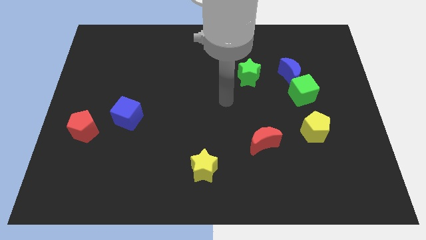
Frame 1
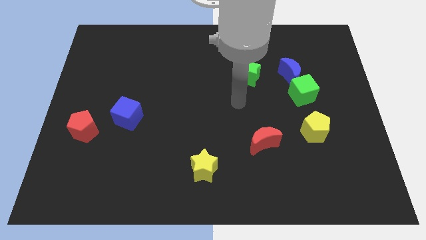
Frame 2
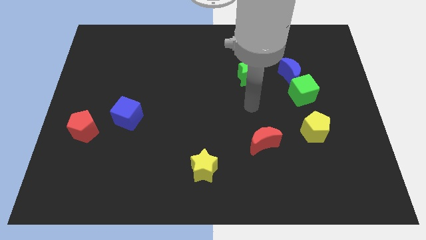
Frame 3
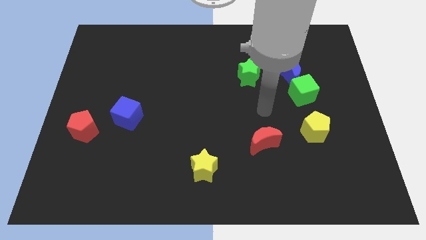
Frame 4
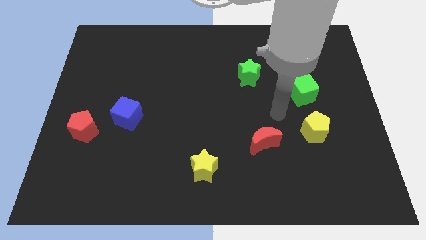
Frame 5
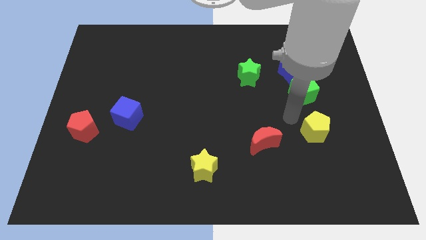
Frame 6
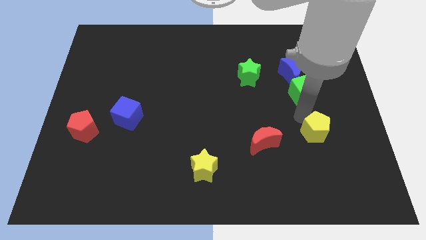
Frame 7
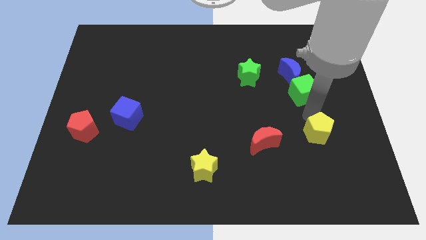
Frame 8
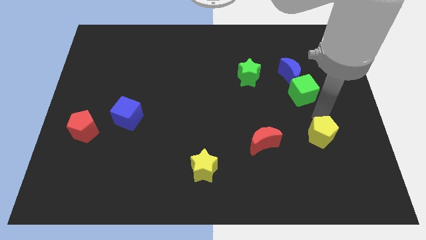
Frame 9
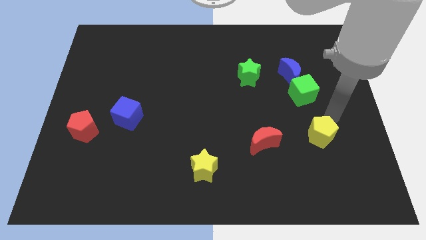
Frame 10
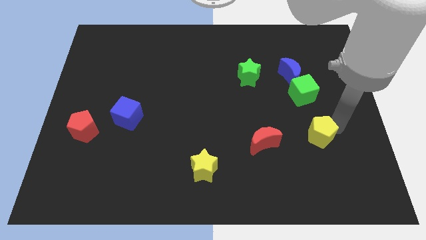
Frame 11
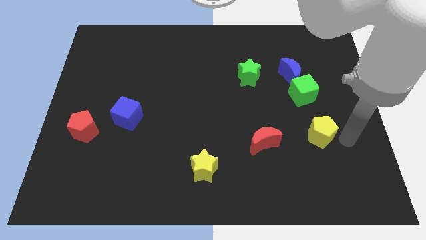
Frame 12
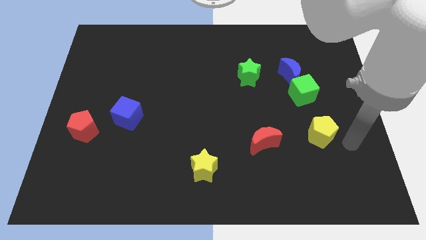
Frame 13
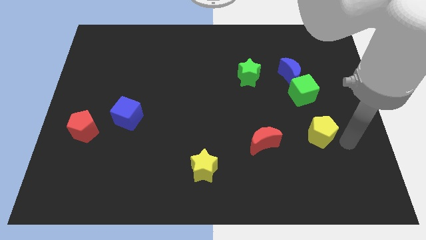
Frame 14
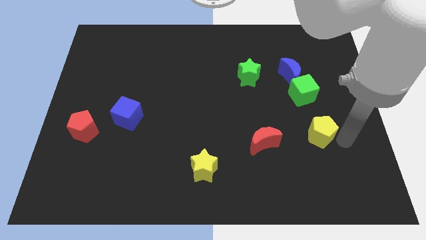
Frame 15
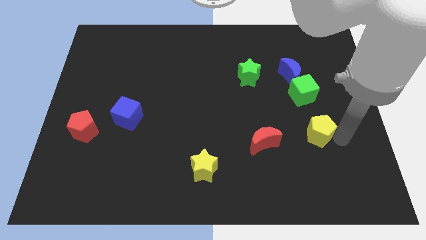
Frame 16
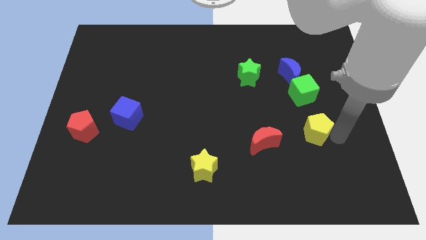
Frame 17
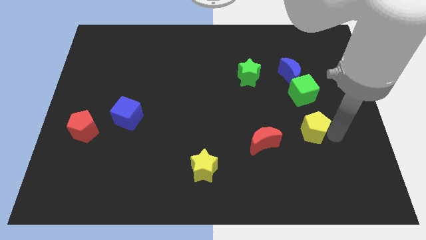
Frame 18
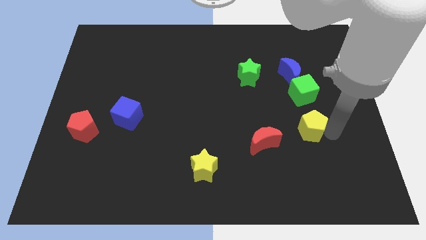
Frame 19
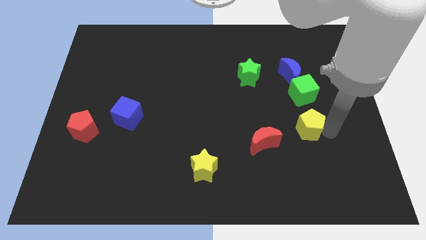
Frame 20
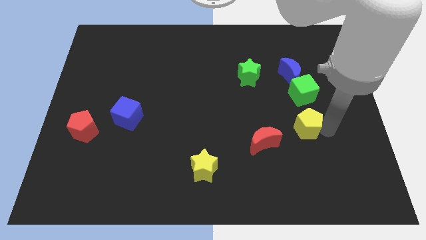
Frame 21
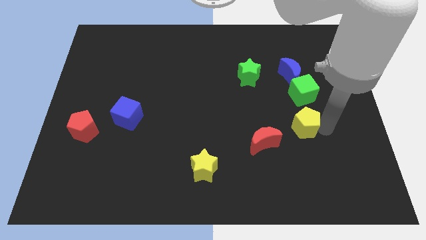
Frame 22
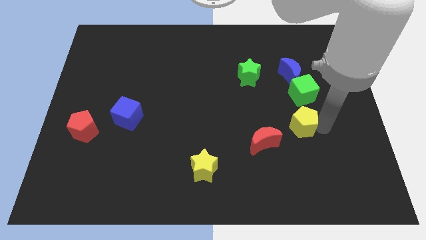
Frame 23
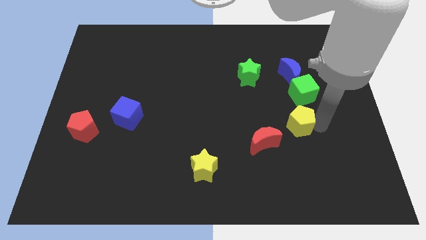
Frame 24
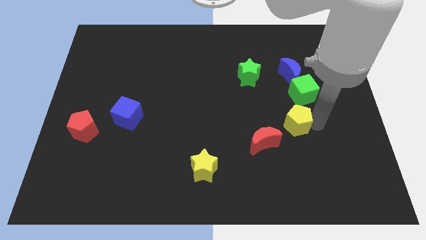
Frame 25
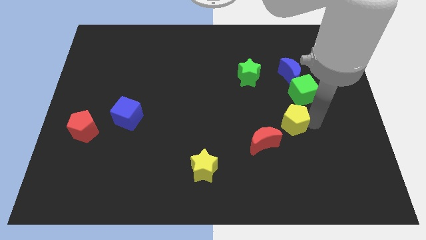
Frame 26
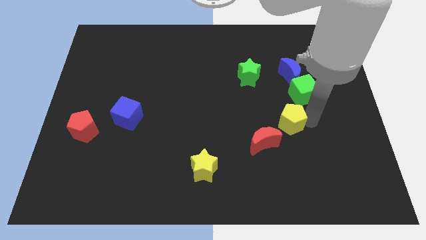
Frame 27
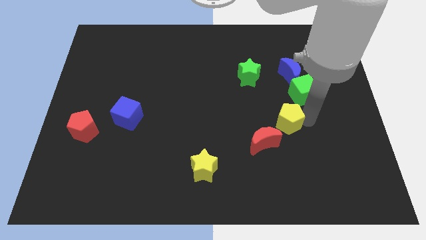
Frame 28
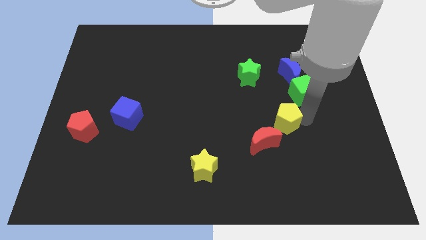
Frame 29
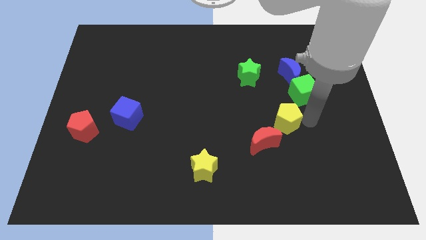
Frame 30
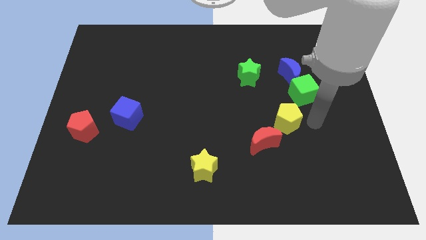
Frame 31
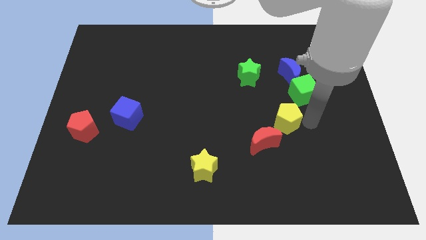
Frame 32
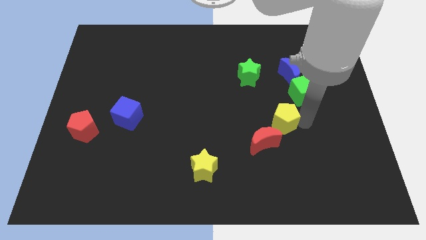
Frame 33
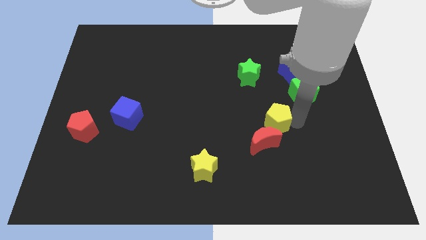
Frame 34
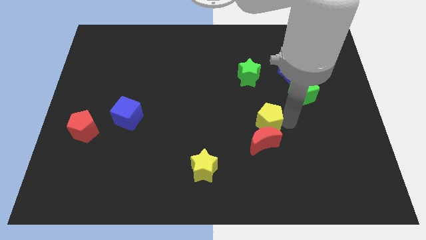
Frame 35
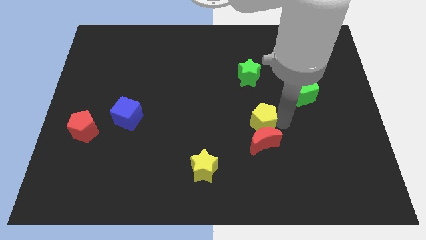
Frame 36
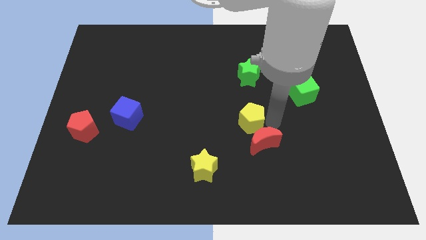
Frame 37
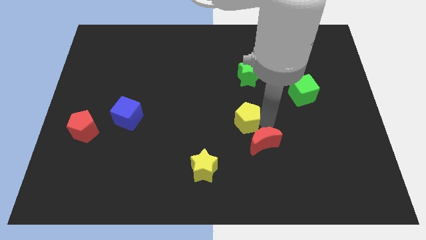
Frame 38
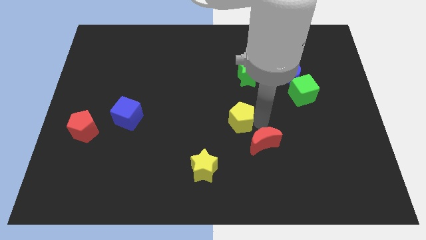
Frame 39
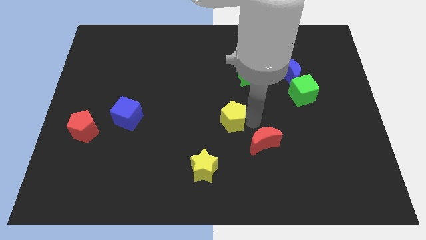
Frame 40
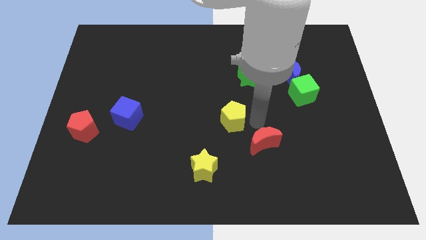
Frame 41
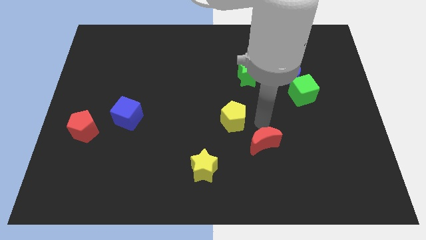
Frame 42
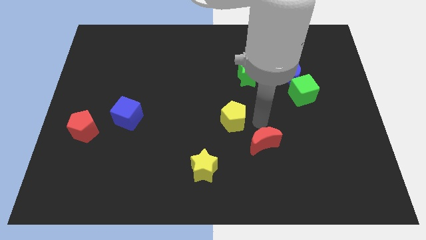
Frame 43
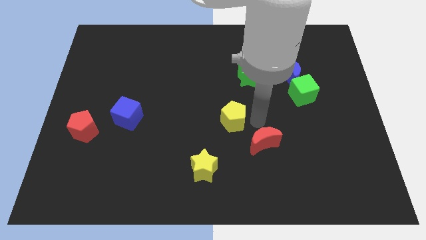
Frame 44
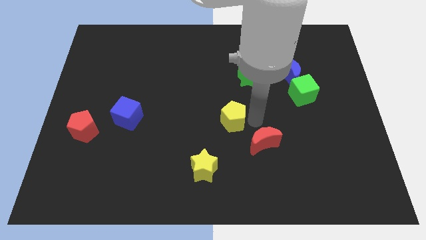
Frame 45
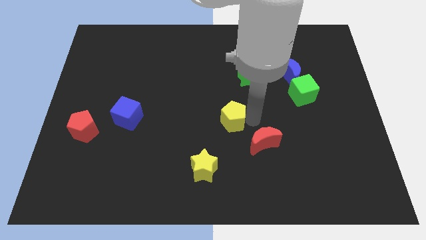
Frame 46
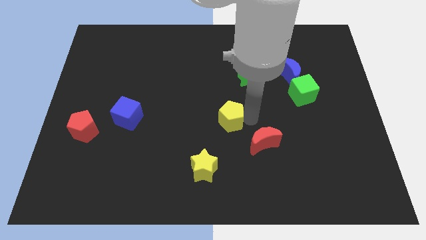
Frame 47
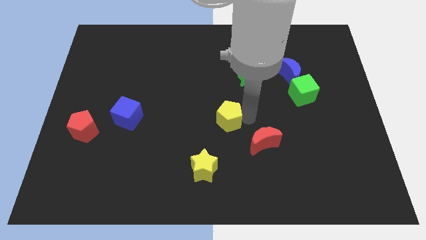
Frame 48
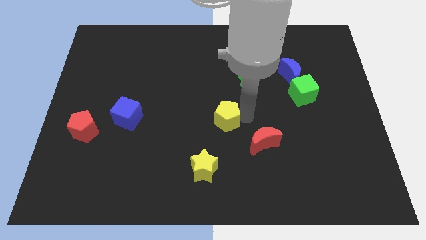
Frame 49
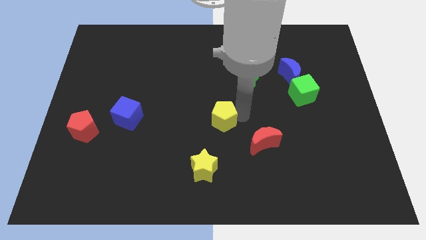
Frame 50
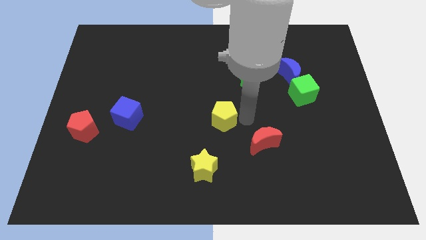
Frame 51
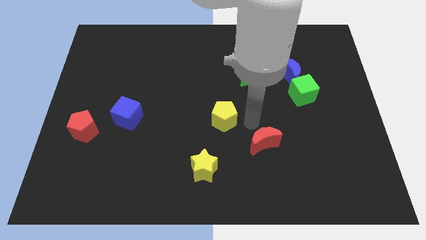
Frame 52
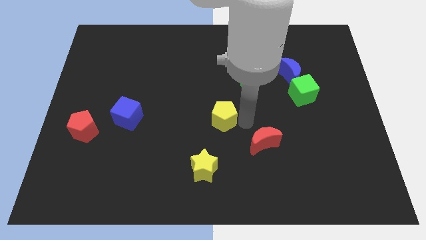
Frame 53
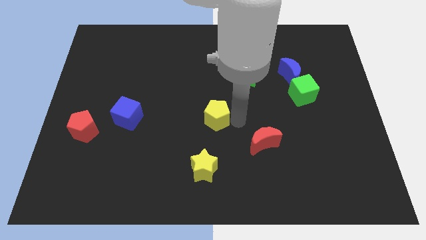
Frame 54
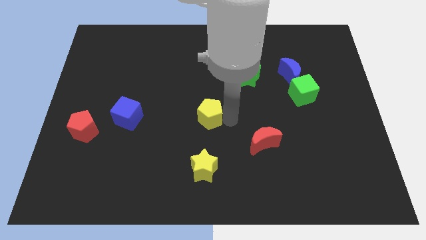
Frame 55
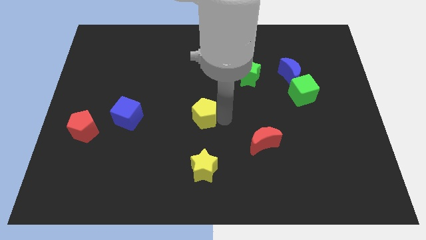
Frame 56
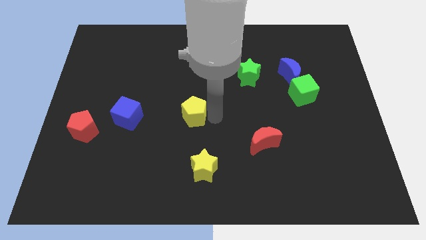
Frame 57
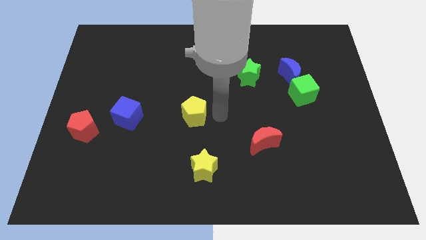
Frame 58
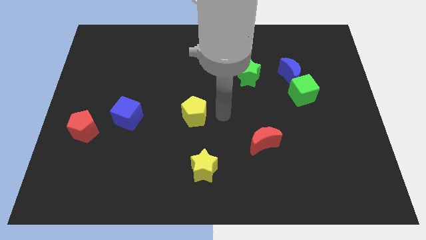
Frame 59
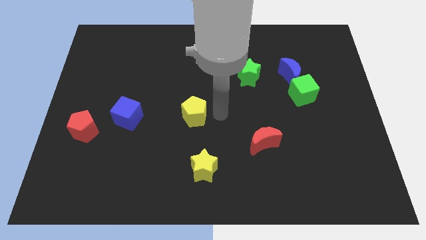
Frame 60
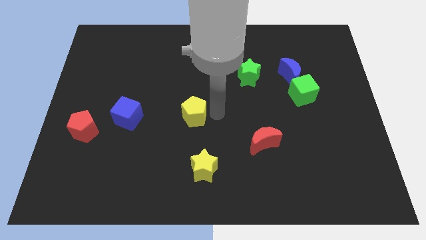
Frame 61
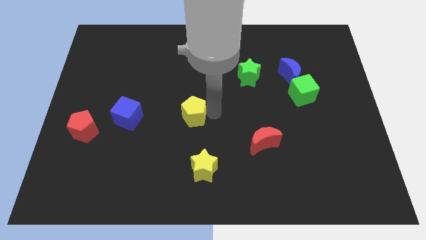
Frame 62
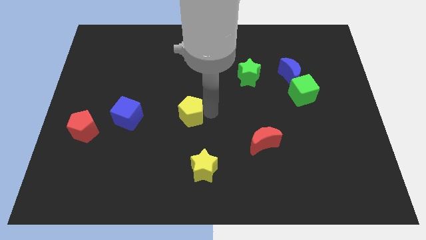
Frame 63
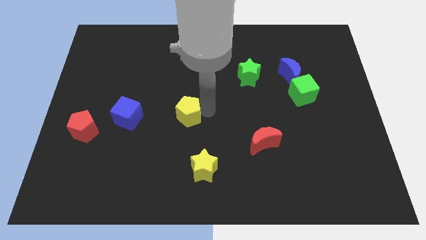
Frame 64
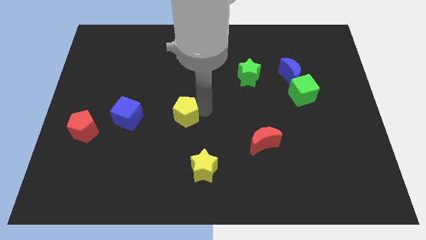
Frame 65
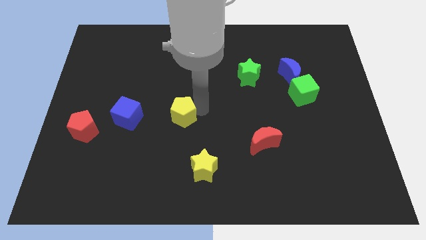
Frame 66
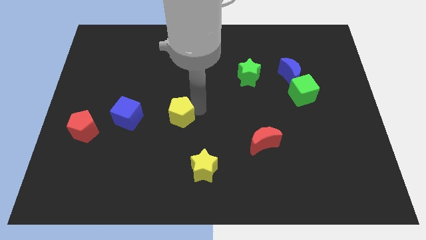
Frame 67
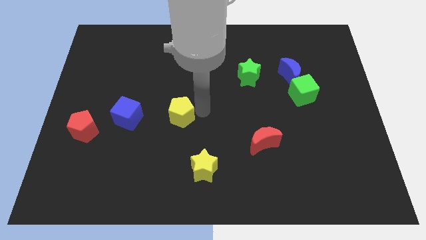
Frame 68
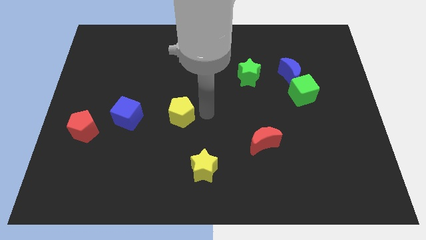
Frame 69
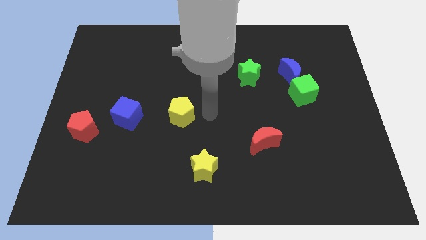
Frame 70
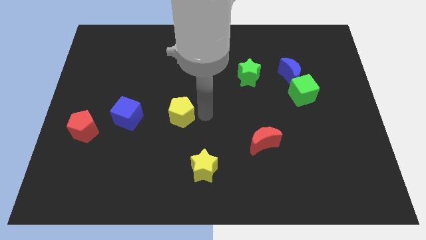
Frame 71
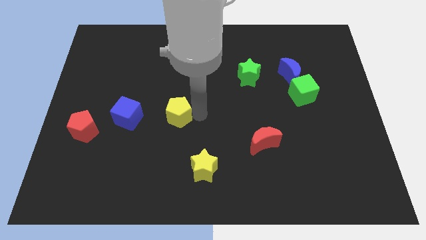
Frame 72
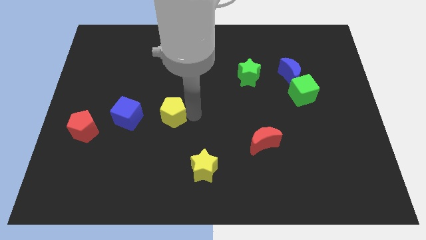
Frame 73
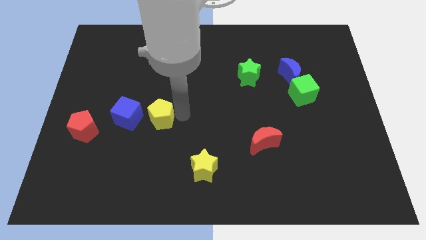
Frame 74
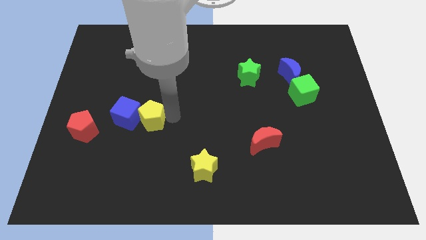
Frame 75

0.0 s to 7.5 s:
slide the yellow pentagon close to the blue cube

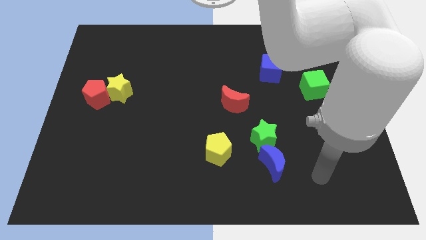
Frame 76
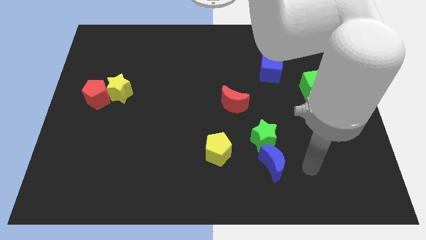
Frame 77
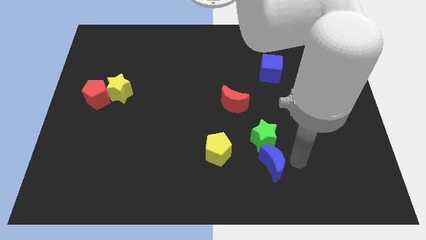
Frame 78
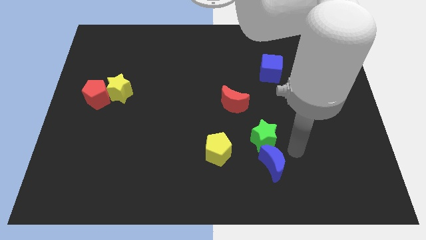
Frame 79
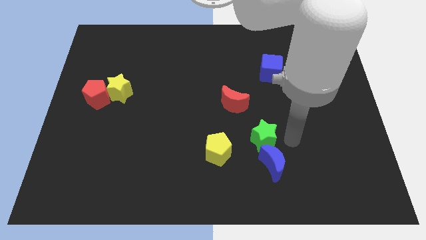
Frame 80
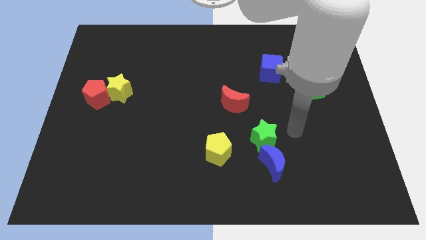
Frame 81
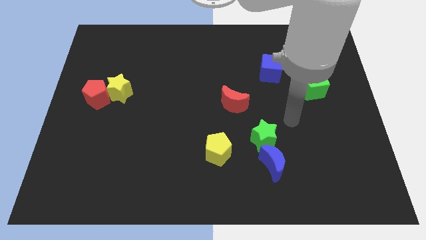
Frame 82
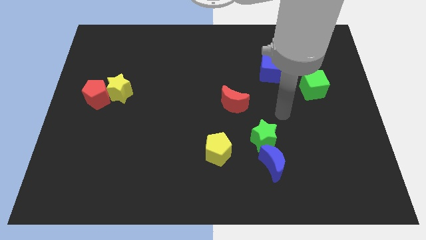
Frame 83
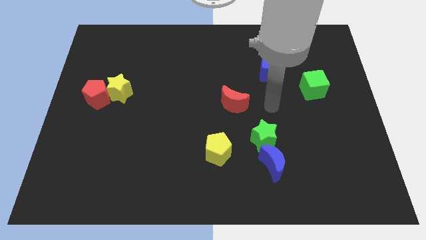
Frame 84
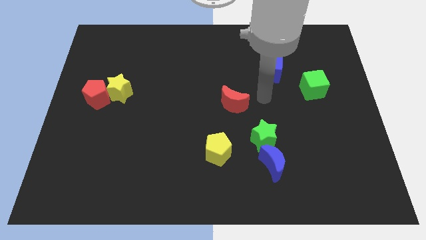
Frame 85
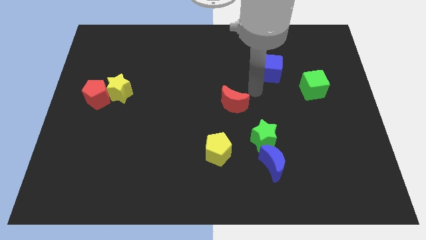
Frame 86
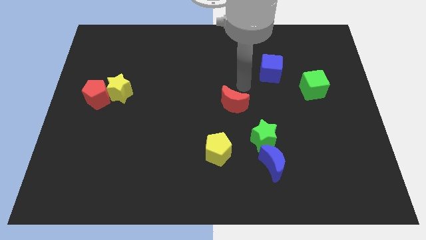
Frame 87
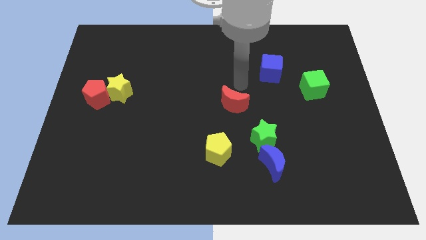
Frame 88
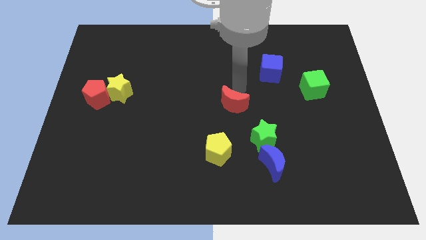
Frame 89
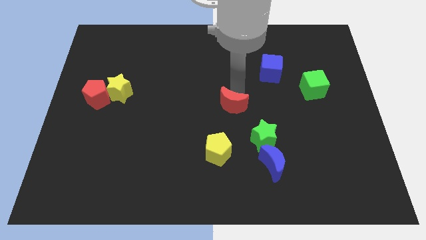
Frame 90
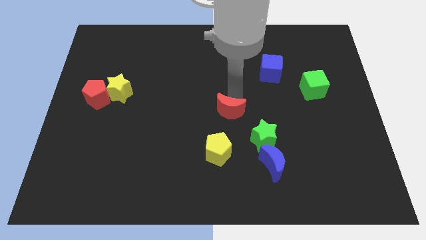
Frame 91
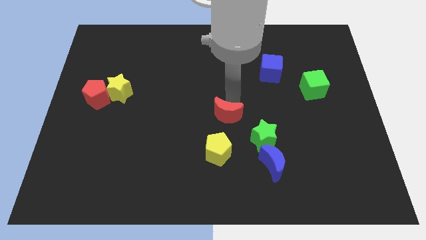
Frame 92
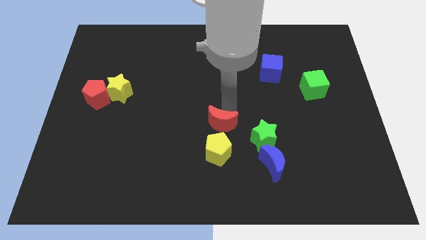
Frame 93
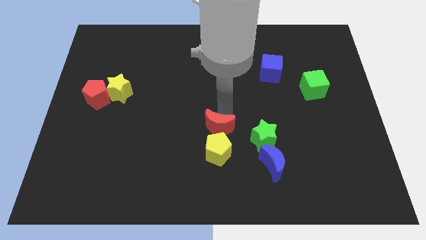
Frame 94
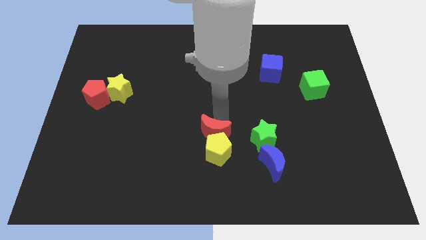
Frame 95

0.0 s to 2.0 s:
push the red moon towards the yellow pentagon
